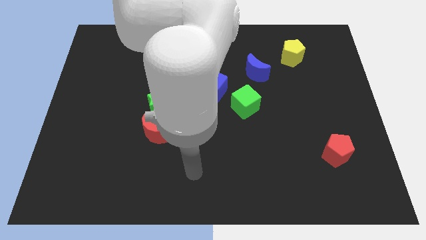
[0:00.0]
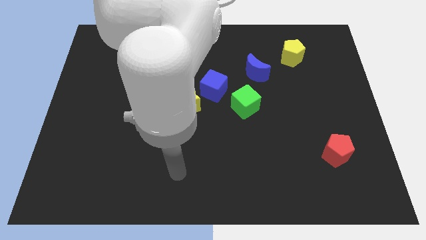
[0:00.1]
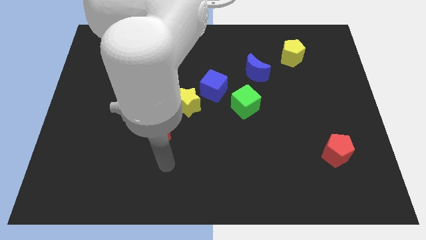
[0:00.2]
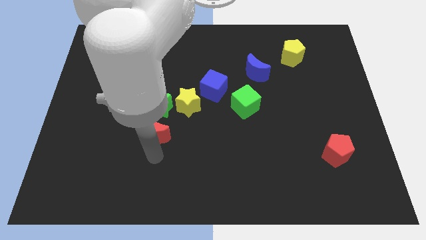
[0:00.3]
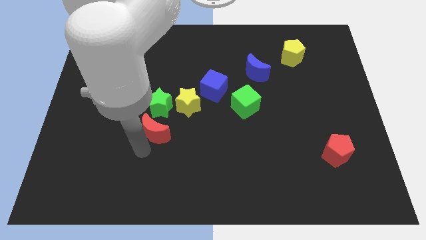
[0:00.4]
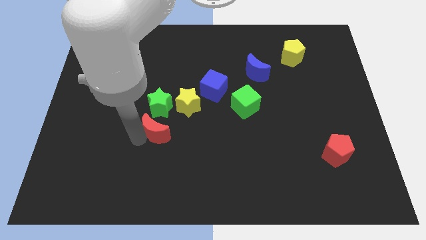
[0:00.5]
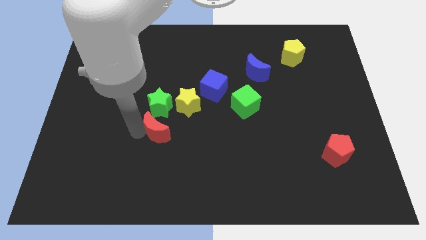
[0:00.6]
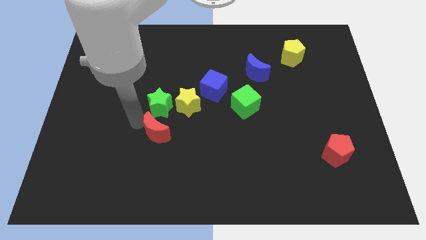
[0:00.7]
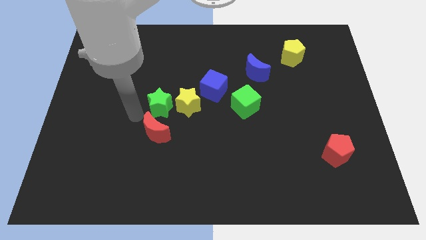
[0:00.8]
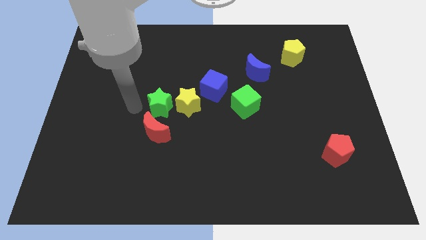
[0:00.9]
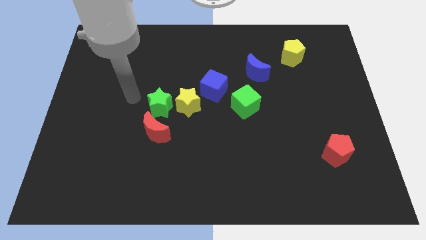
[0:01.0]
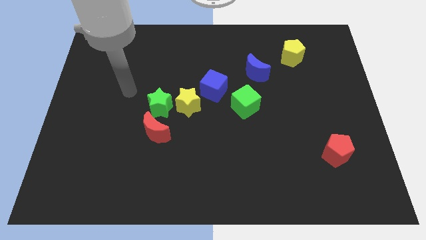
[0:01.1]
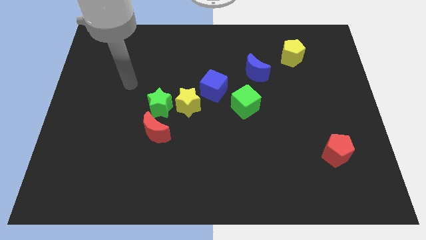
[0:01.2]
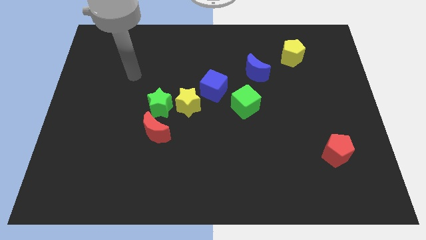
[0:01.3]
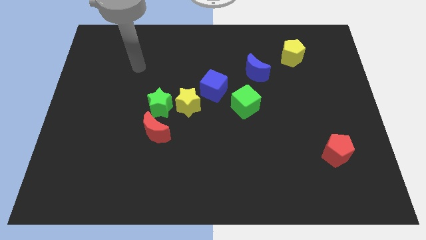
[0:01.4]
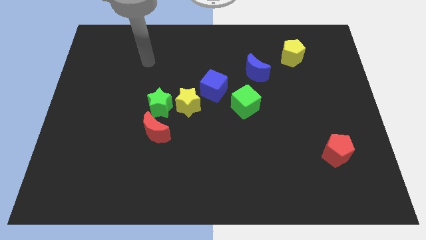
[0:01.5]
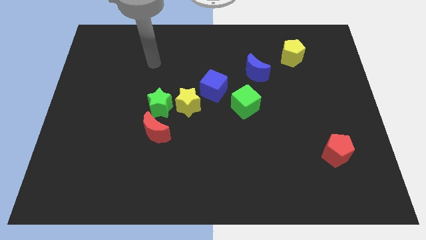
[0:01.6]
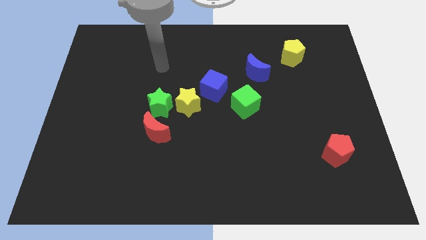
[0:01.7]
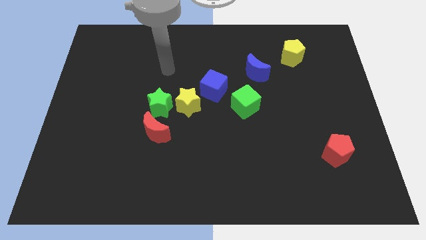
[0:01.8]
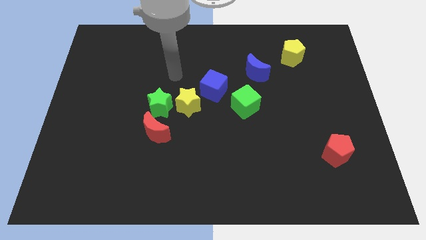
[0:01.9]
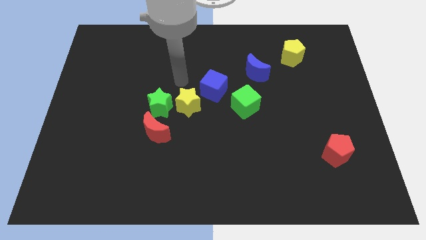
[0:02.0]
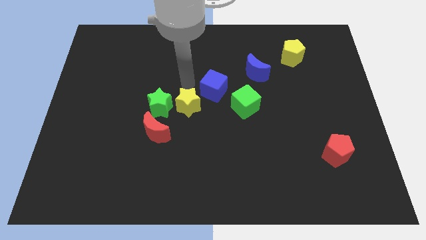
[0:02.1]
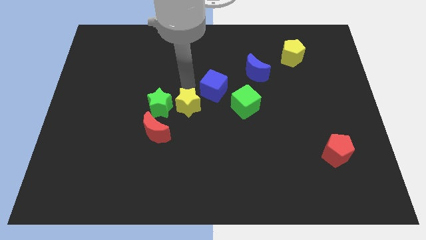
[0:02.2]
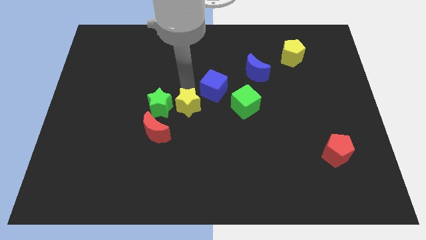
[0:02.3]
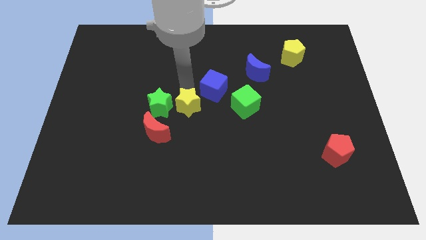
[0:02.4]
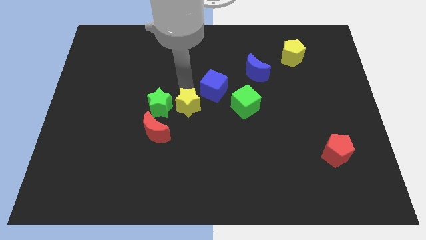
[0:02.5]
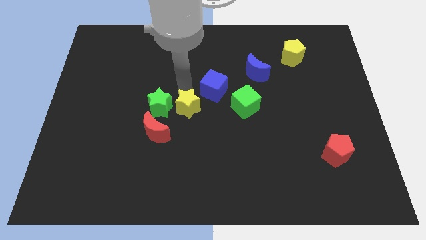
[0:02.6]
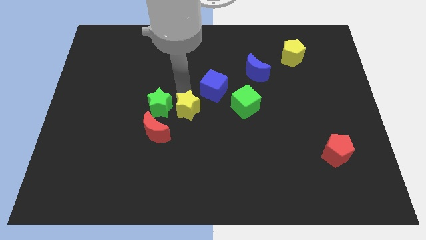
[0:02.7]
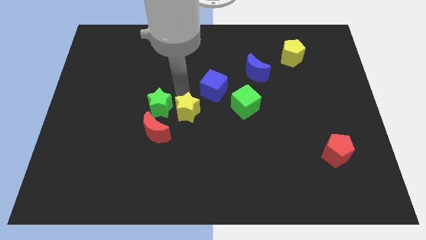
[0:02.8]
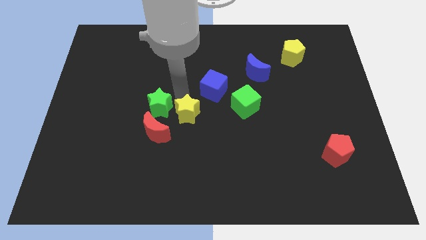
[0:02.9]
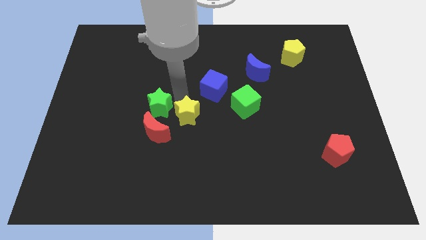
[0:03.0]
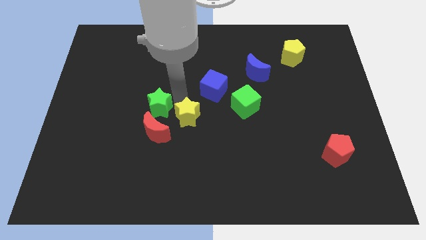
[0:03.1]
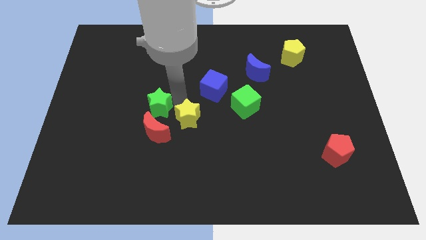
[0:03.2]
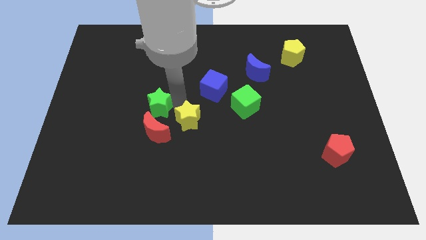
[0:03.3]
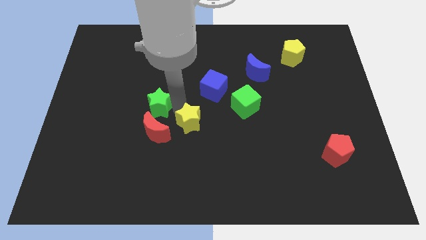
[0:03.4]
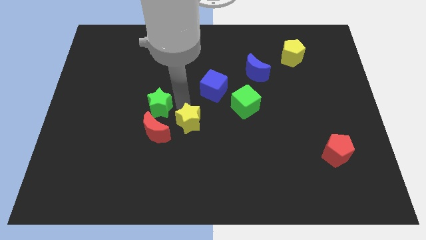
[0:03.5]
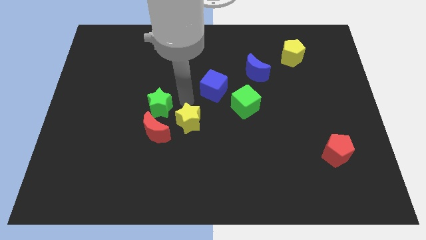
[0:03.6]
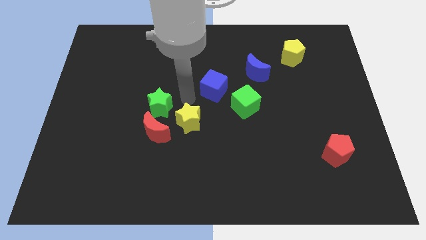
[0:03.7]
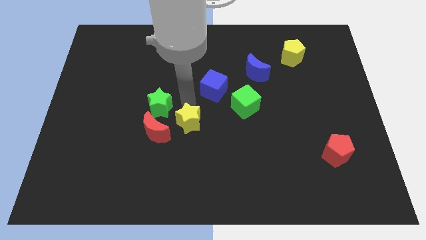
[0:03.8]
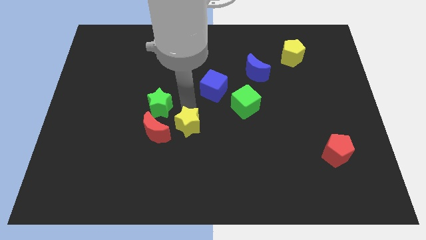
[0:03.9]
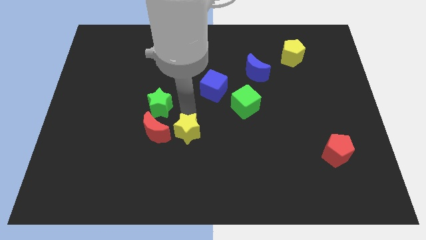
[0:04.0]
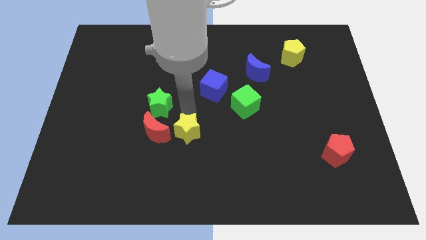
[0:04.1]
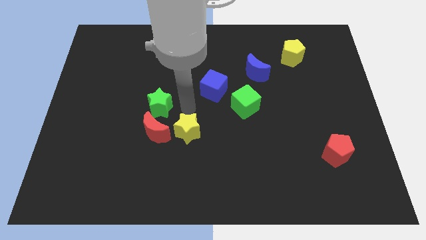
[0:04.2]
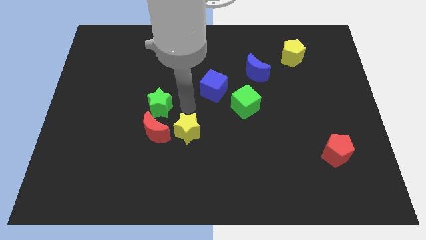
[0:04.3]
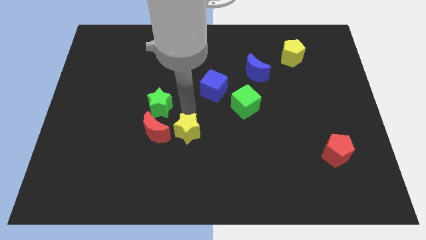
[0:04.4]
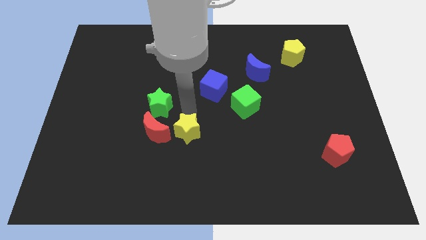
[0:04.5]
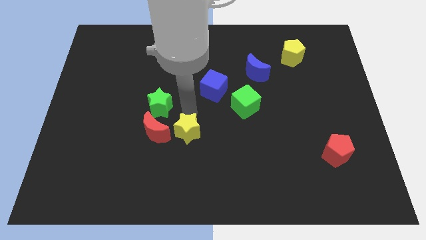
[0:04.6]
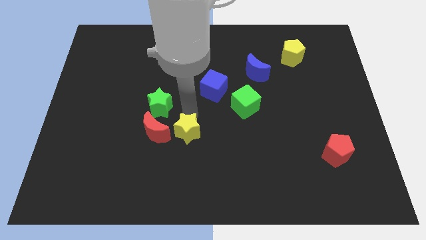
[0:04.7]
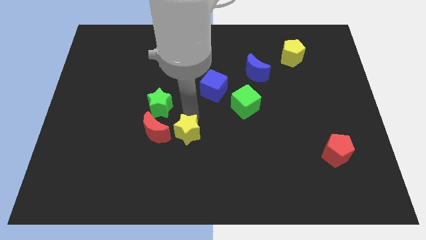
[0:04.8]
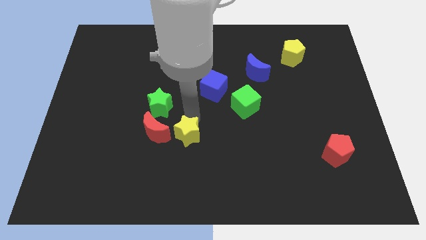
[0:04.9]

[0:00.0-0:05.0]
move the yellow star away from the green star and blue cube

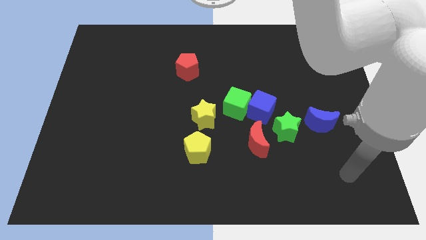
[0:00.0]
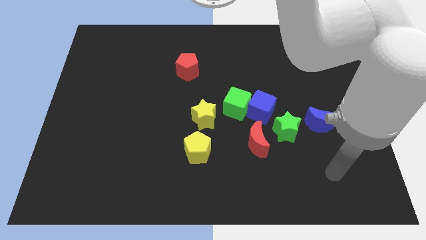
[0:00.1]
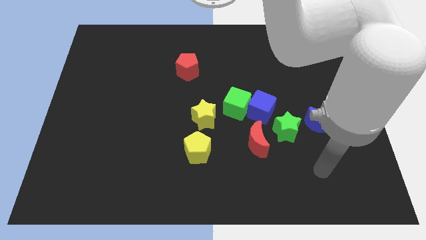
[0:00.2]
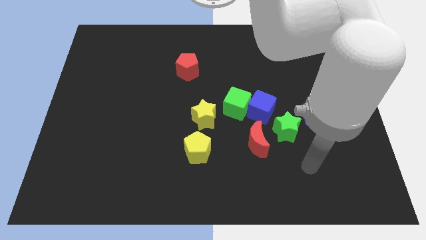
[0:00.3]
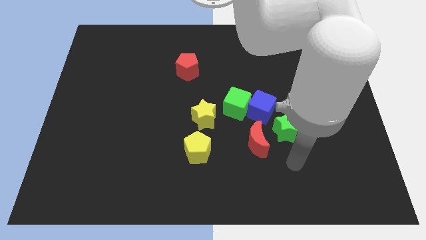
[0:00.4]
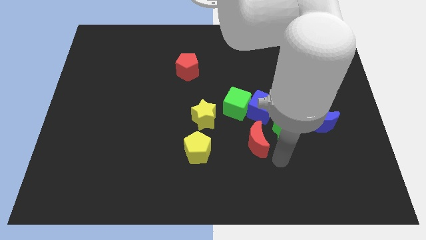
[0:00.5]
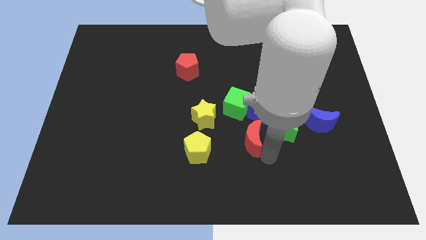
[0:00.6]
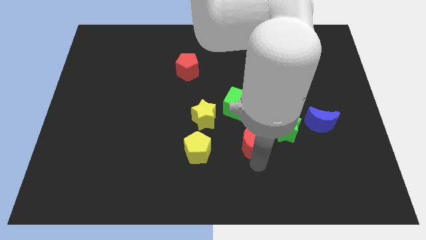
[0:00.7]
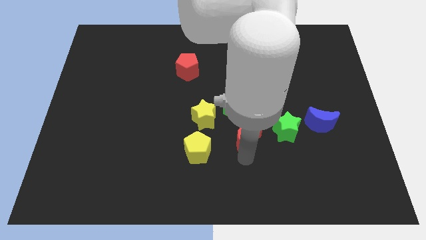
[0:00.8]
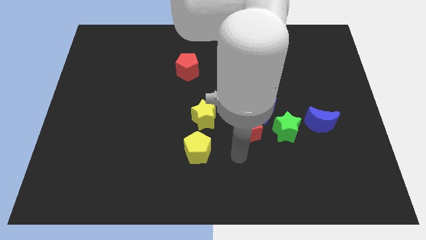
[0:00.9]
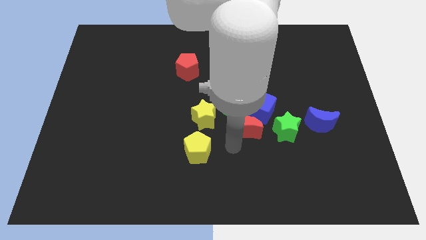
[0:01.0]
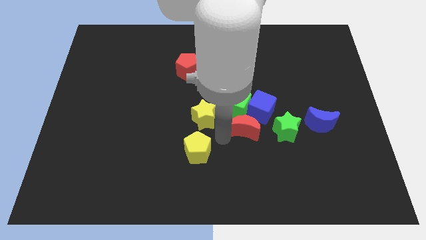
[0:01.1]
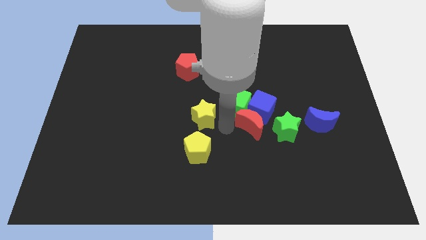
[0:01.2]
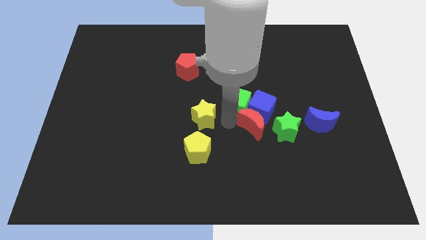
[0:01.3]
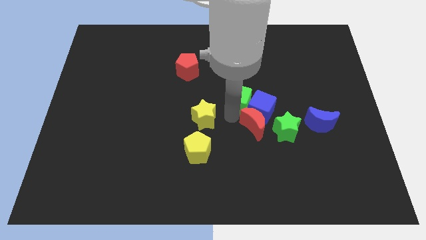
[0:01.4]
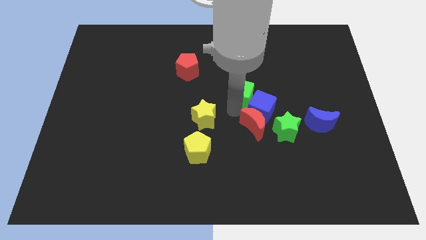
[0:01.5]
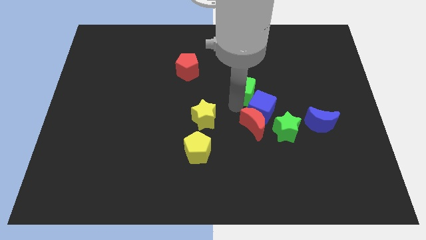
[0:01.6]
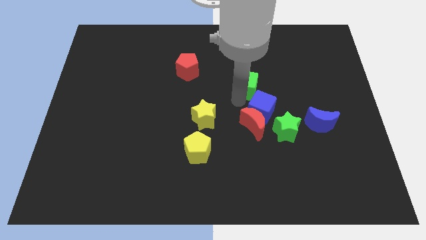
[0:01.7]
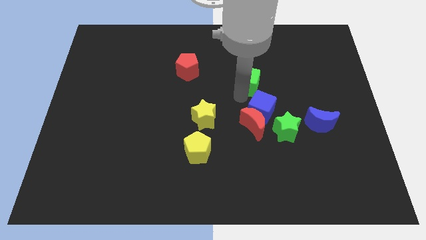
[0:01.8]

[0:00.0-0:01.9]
separate the green cube from the blue cube and yellow star

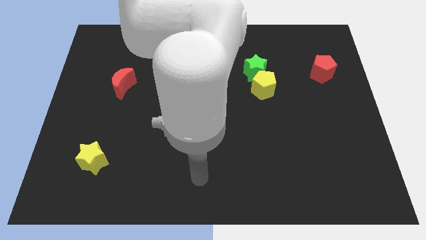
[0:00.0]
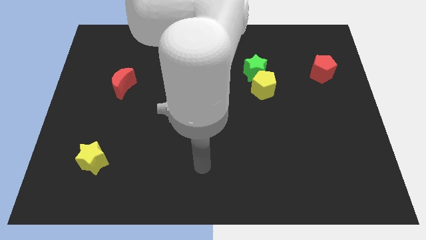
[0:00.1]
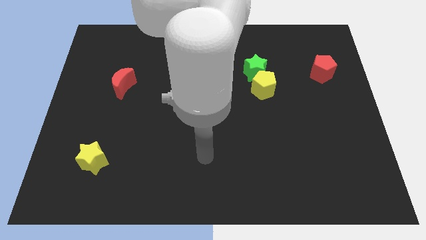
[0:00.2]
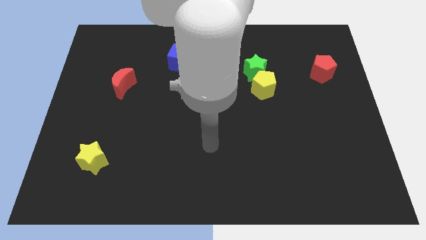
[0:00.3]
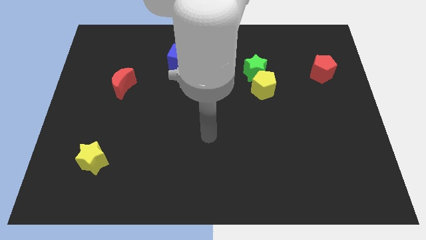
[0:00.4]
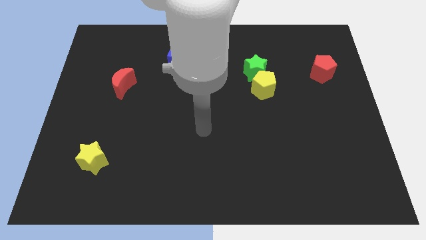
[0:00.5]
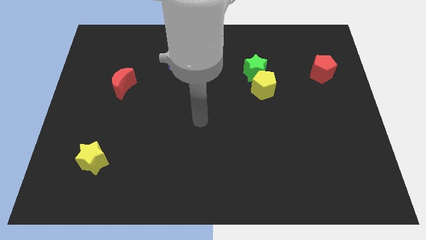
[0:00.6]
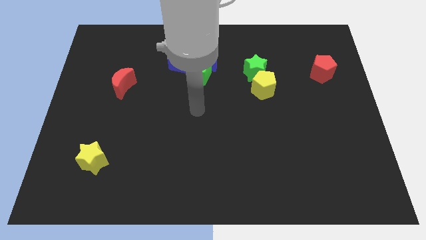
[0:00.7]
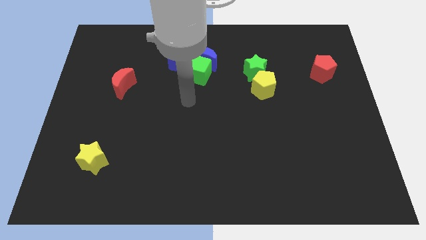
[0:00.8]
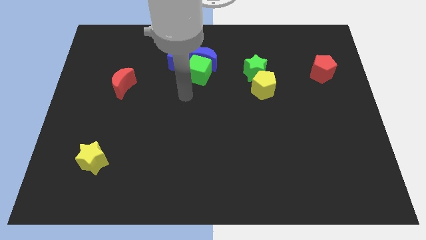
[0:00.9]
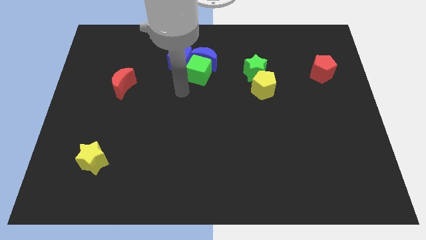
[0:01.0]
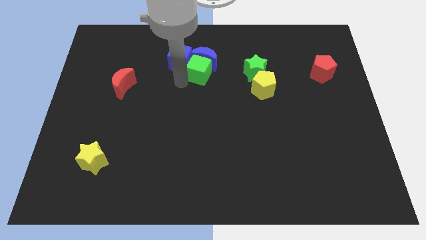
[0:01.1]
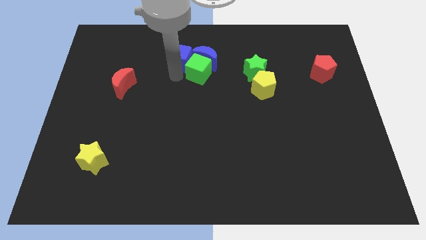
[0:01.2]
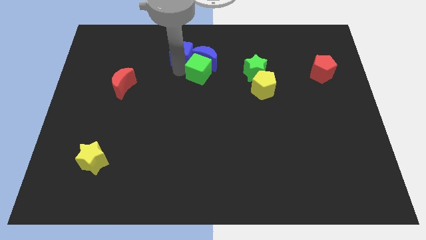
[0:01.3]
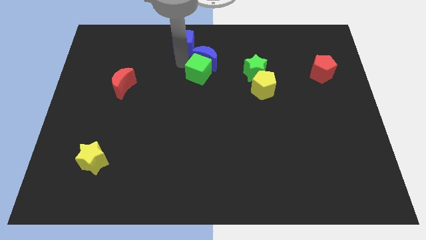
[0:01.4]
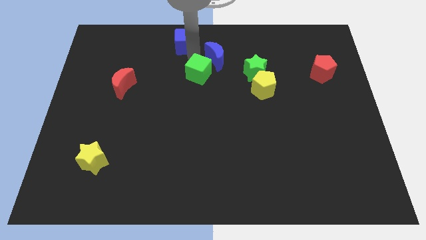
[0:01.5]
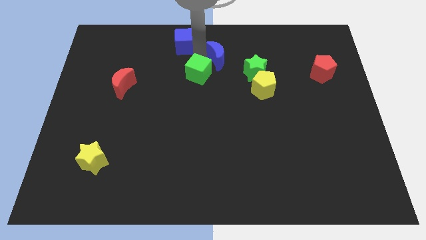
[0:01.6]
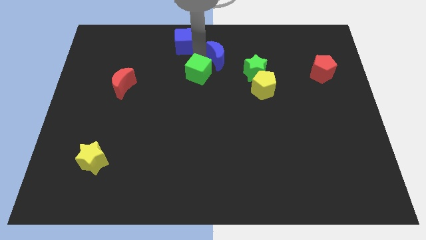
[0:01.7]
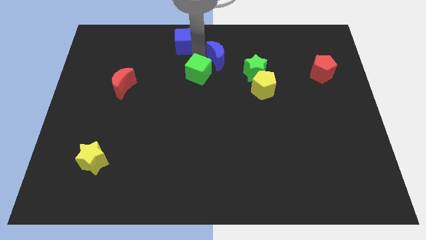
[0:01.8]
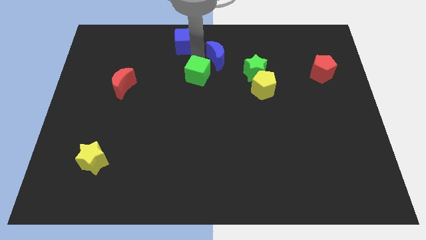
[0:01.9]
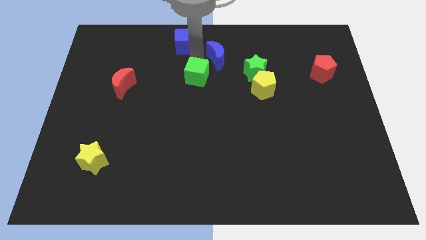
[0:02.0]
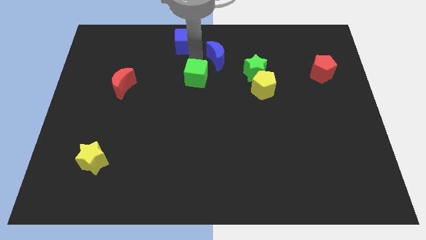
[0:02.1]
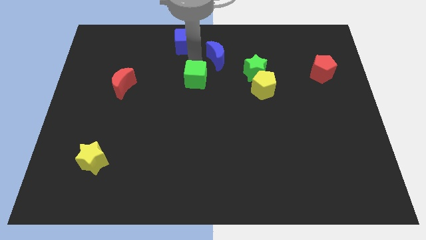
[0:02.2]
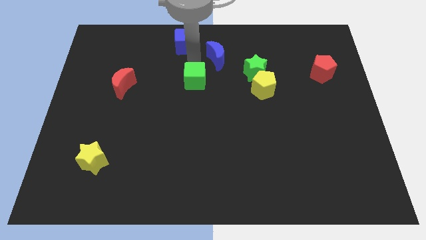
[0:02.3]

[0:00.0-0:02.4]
move the green cube away from the blue moon and blue cube
